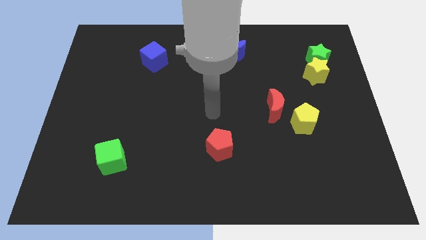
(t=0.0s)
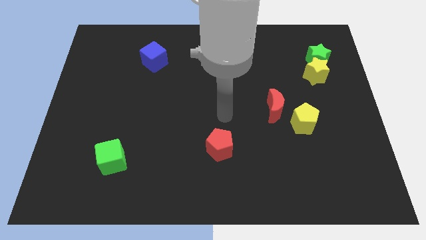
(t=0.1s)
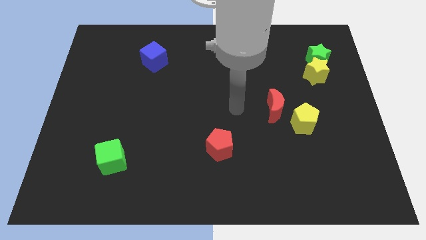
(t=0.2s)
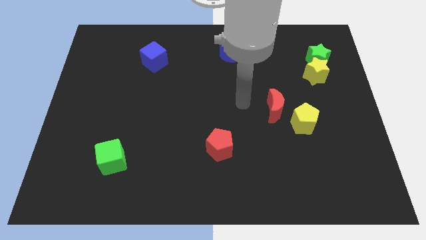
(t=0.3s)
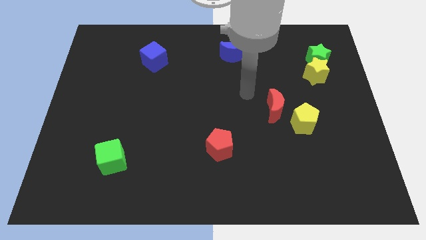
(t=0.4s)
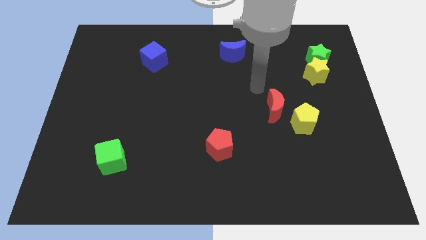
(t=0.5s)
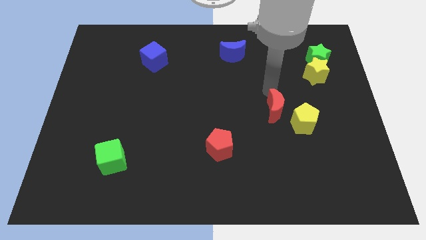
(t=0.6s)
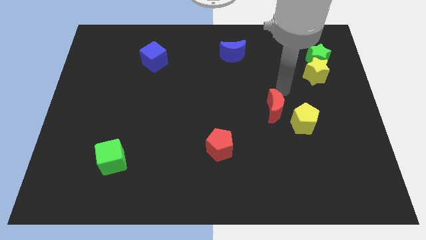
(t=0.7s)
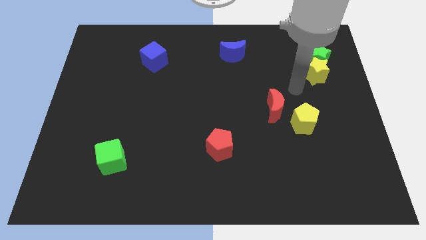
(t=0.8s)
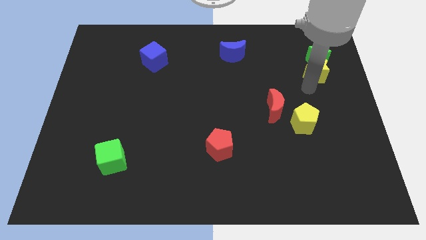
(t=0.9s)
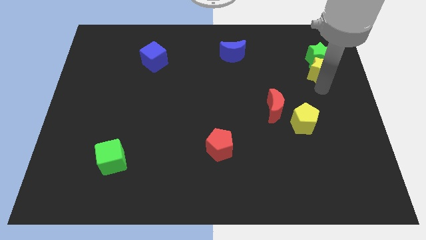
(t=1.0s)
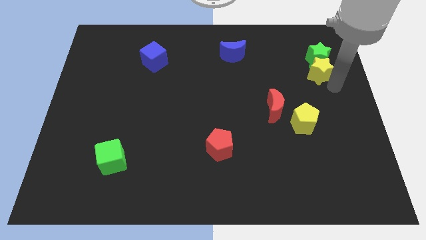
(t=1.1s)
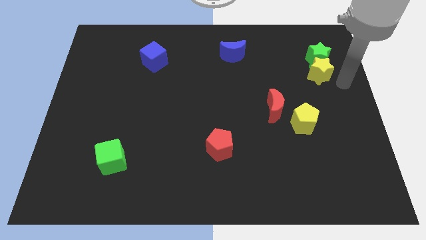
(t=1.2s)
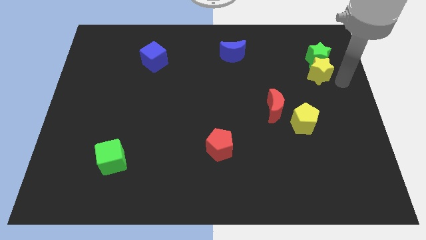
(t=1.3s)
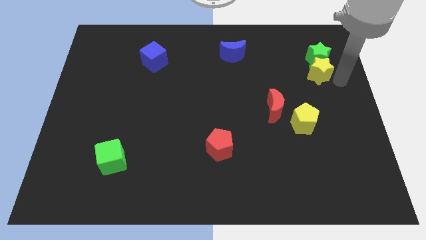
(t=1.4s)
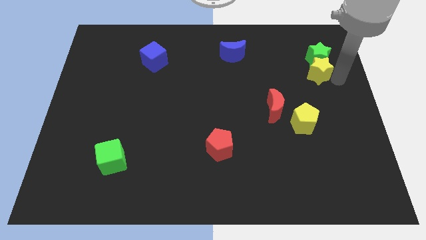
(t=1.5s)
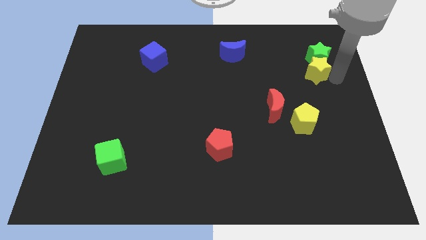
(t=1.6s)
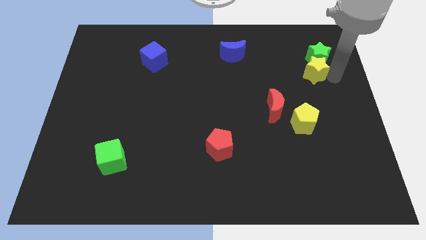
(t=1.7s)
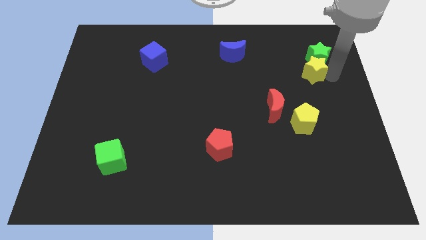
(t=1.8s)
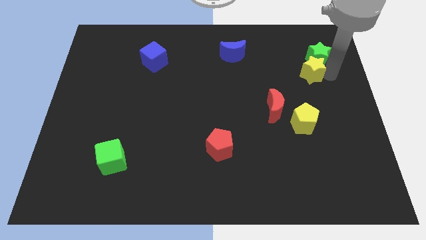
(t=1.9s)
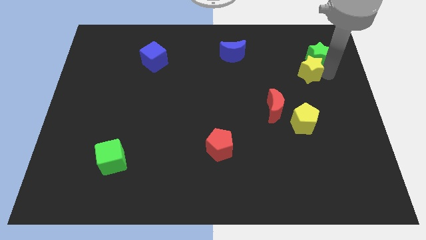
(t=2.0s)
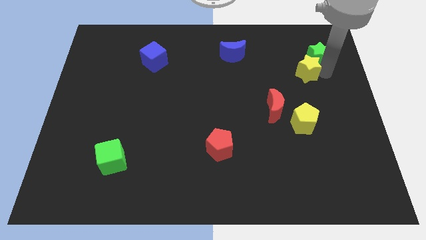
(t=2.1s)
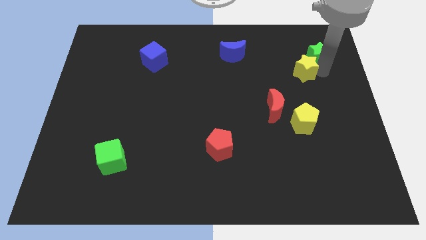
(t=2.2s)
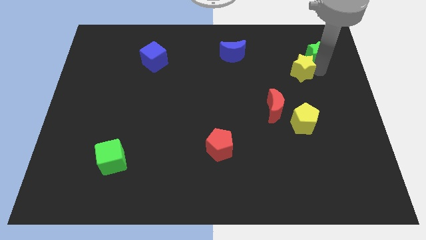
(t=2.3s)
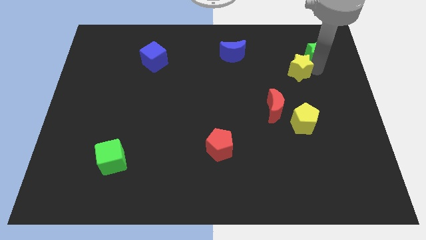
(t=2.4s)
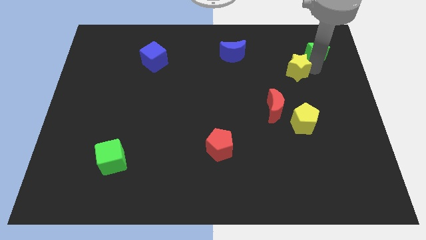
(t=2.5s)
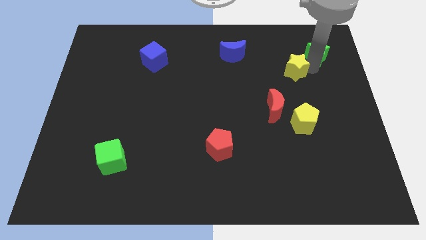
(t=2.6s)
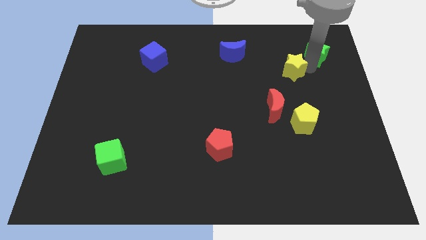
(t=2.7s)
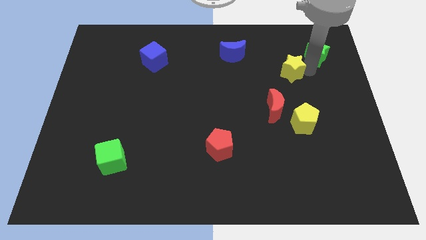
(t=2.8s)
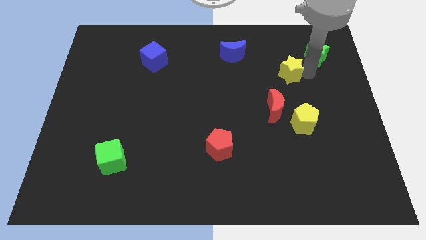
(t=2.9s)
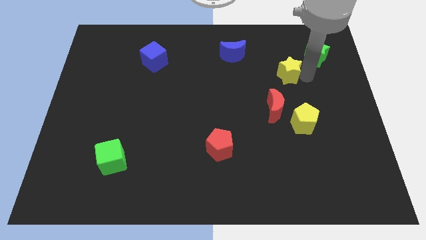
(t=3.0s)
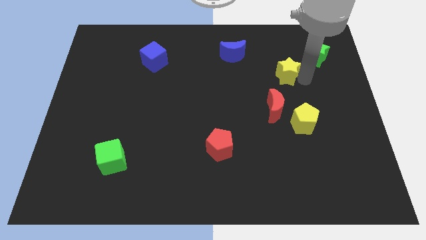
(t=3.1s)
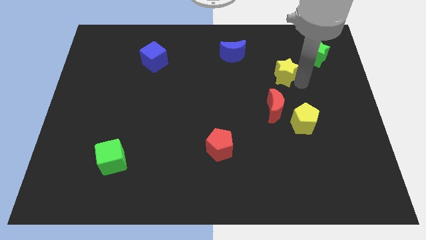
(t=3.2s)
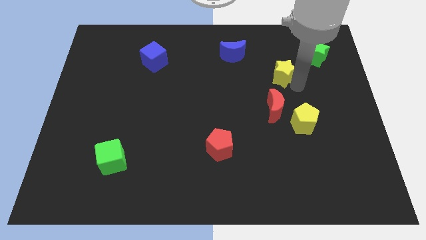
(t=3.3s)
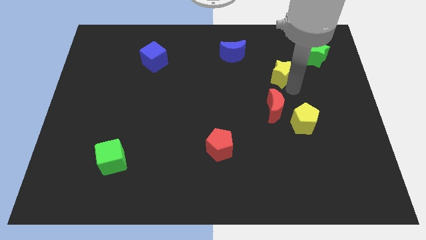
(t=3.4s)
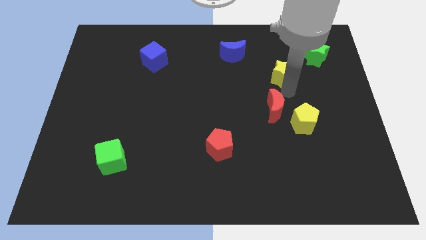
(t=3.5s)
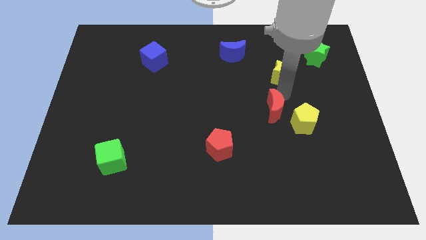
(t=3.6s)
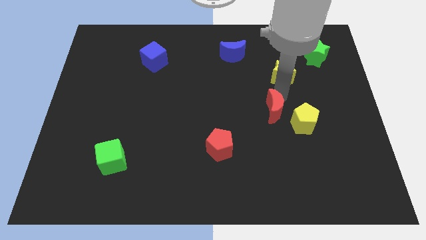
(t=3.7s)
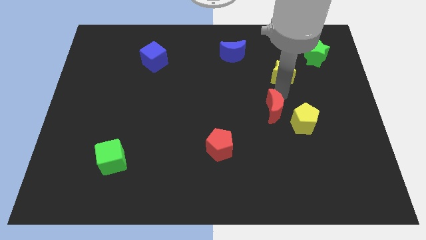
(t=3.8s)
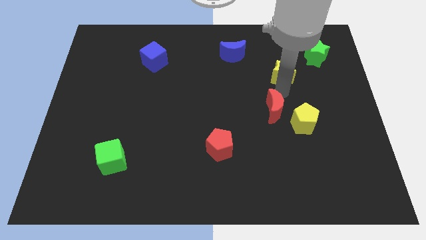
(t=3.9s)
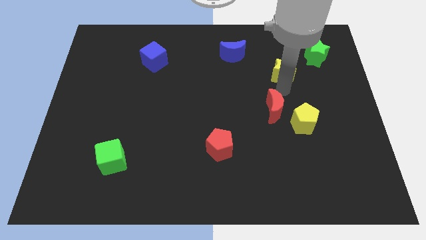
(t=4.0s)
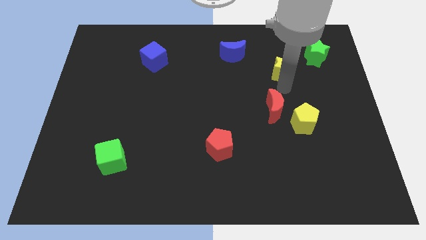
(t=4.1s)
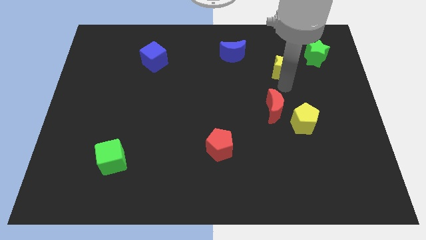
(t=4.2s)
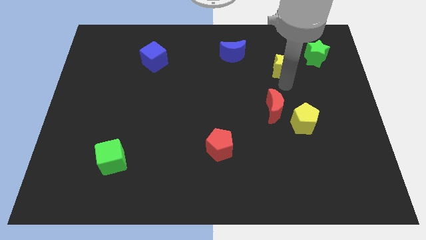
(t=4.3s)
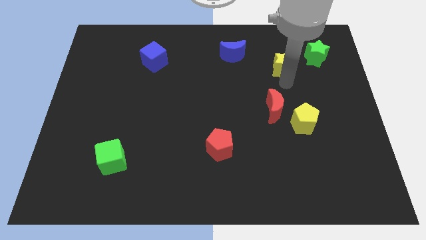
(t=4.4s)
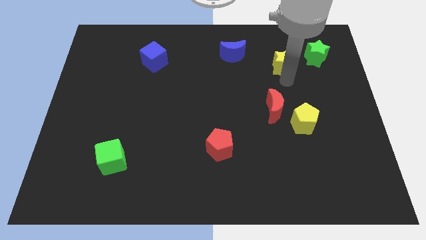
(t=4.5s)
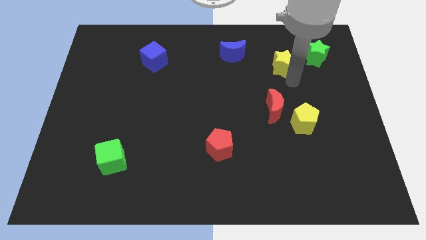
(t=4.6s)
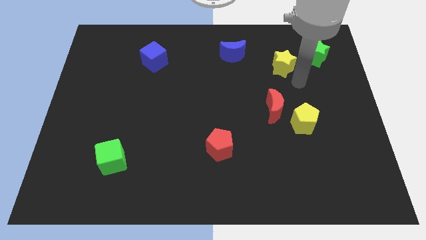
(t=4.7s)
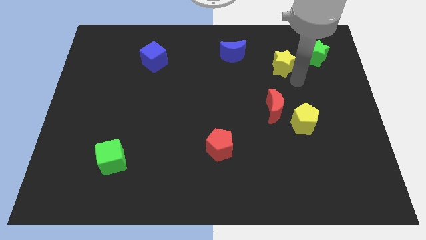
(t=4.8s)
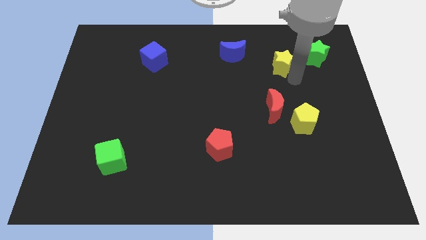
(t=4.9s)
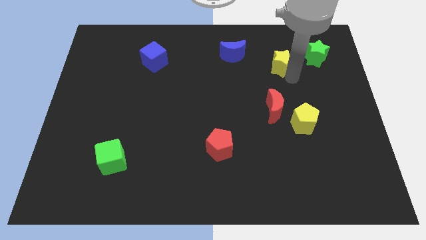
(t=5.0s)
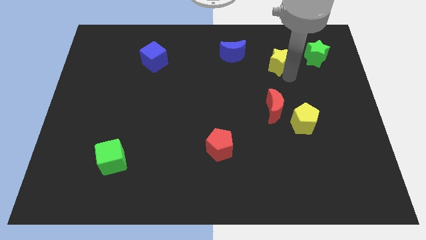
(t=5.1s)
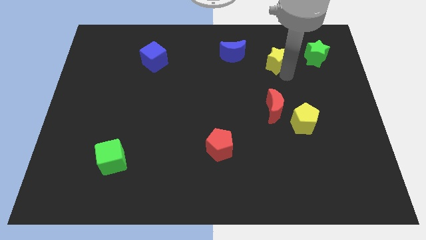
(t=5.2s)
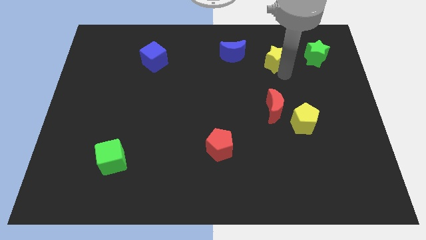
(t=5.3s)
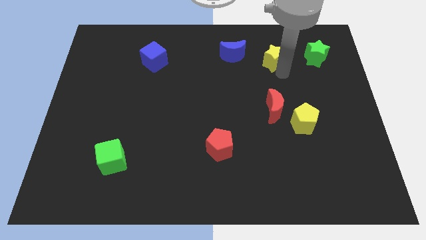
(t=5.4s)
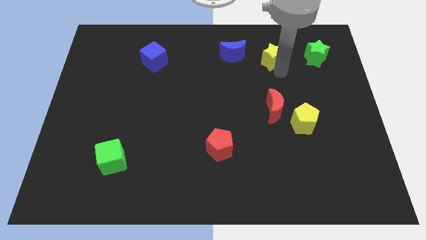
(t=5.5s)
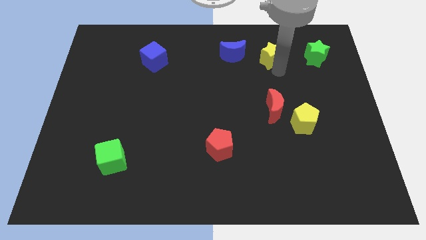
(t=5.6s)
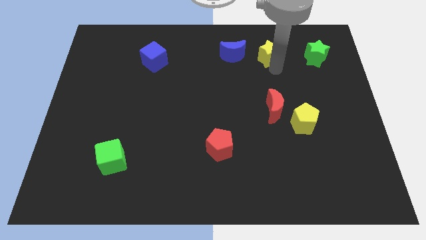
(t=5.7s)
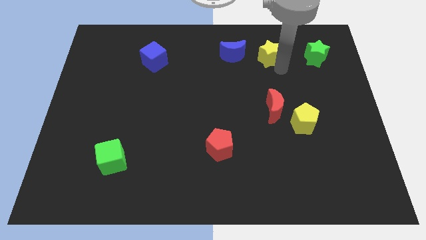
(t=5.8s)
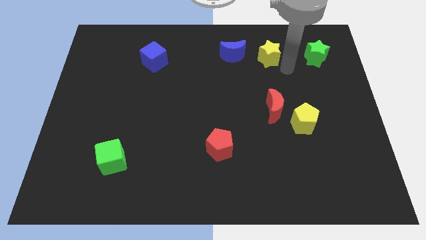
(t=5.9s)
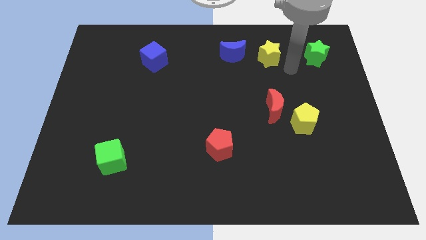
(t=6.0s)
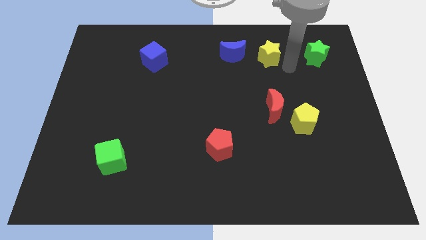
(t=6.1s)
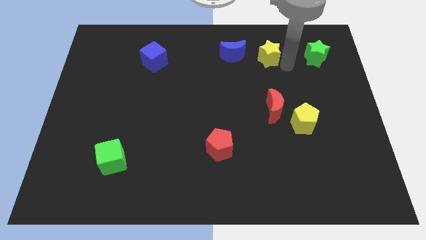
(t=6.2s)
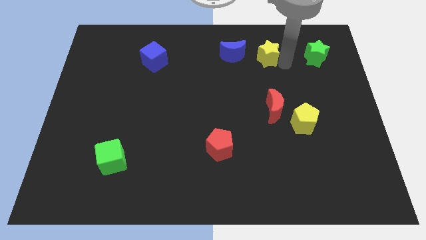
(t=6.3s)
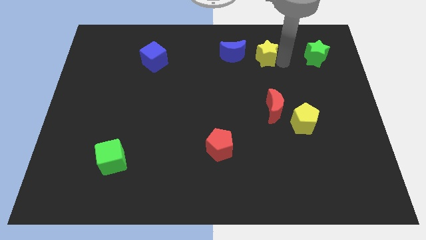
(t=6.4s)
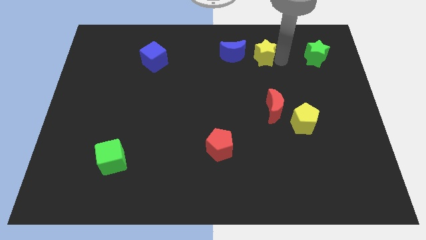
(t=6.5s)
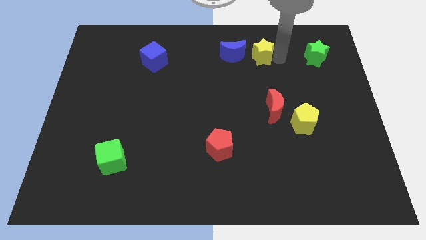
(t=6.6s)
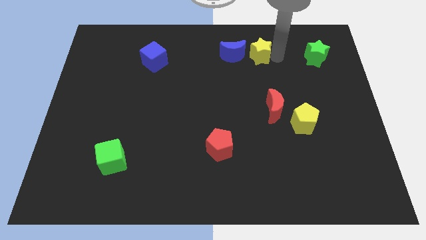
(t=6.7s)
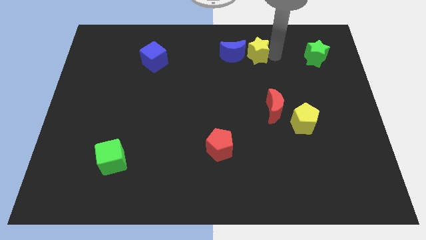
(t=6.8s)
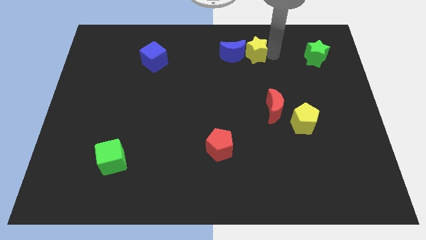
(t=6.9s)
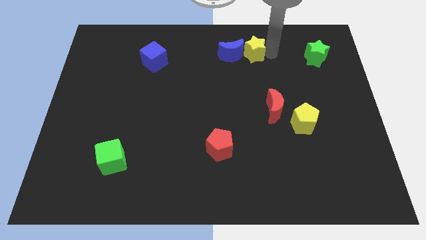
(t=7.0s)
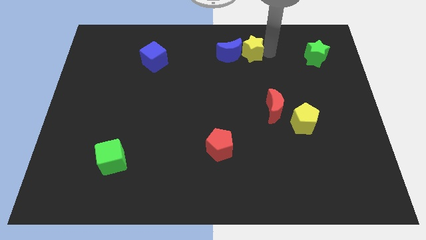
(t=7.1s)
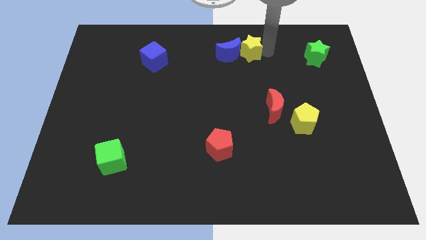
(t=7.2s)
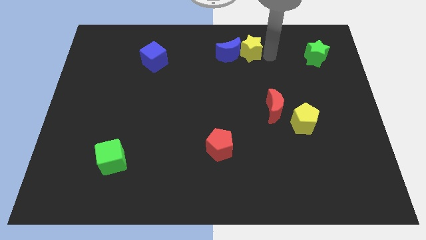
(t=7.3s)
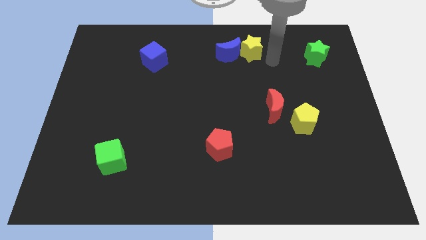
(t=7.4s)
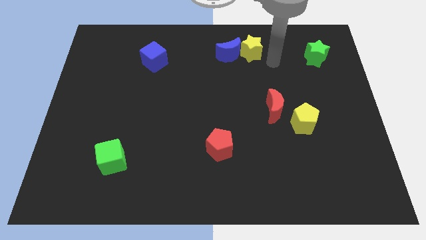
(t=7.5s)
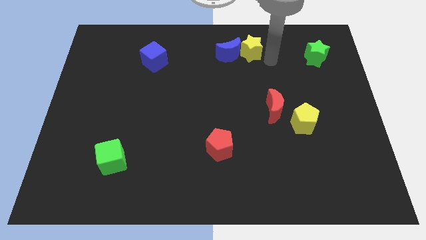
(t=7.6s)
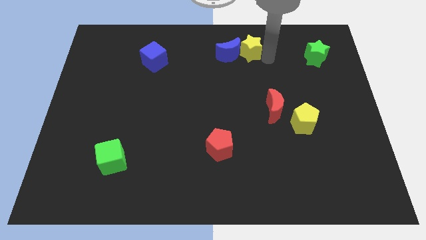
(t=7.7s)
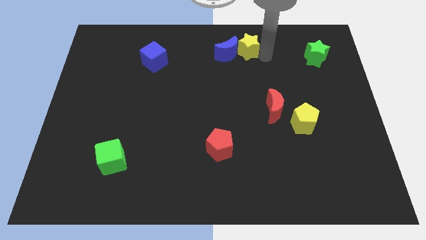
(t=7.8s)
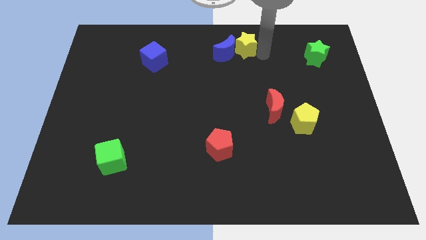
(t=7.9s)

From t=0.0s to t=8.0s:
push the yellow star to the top
